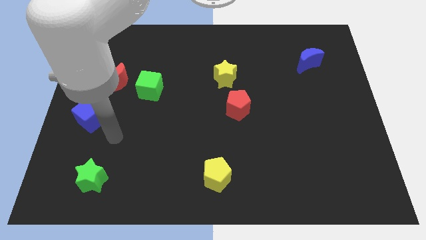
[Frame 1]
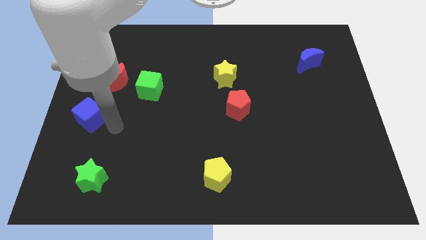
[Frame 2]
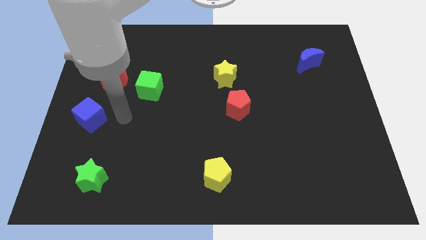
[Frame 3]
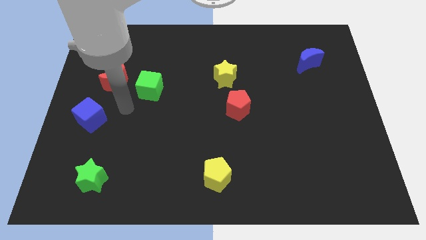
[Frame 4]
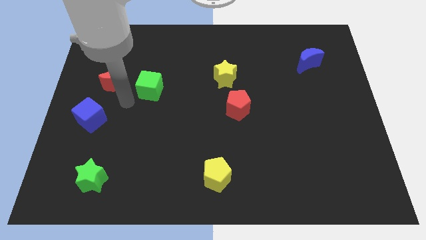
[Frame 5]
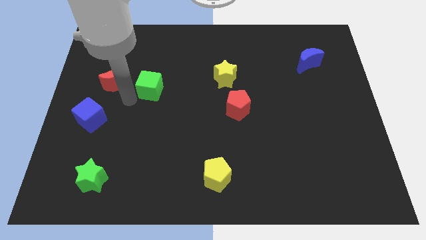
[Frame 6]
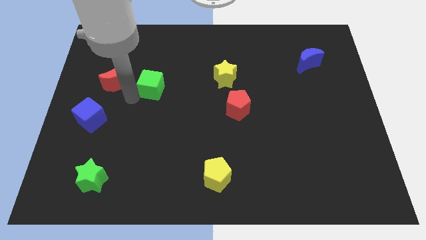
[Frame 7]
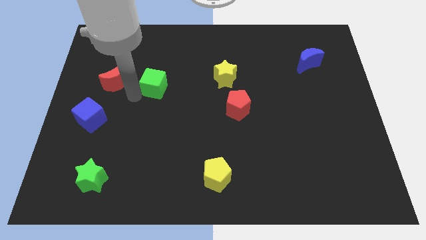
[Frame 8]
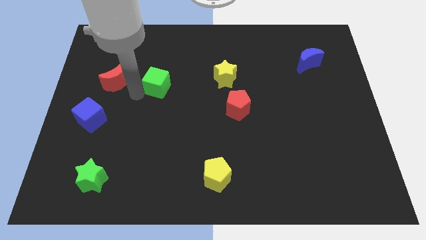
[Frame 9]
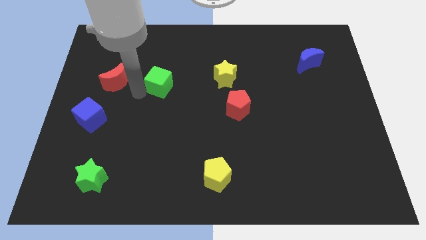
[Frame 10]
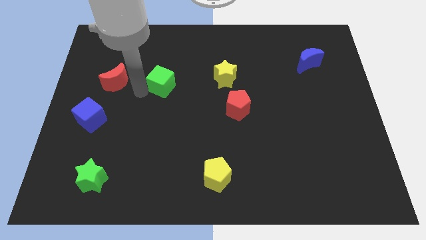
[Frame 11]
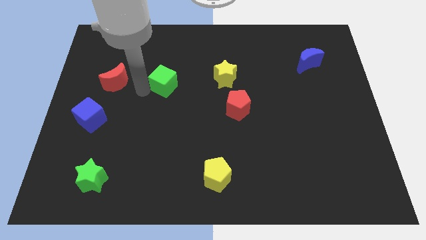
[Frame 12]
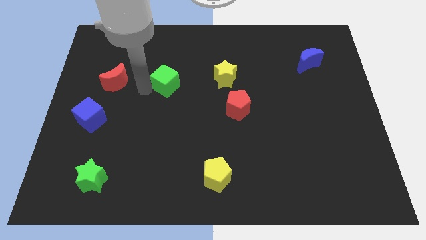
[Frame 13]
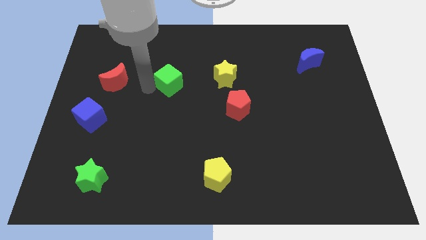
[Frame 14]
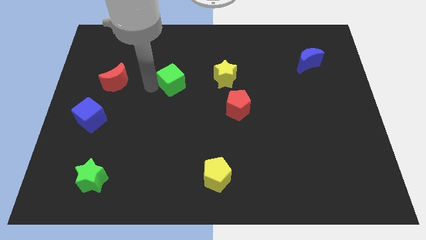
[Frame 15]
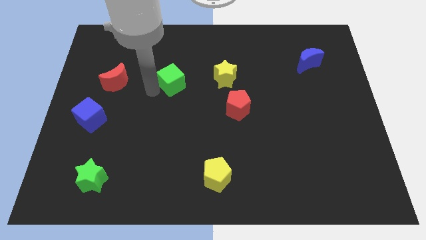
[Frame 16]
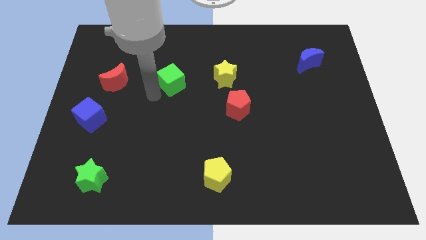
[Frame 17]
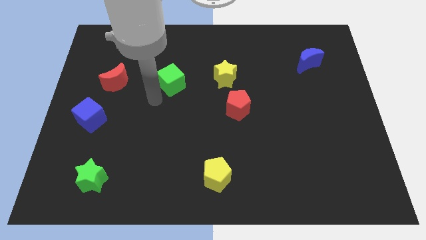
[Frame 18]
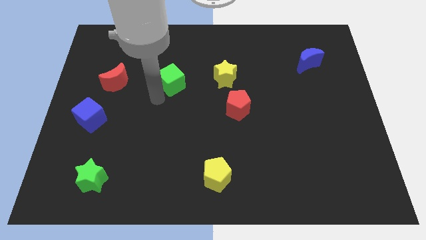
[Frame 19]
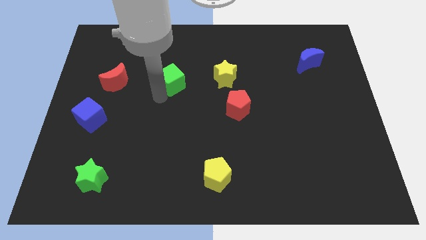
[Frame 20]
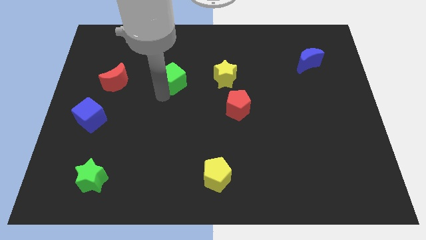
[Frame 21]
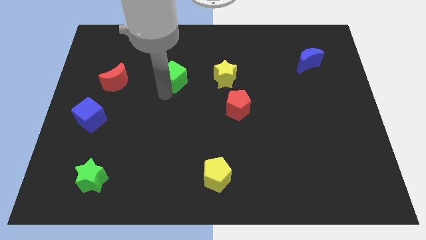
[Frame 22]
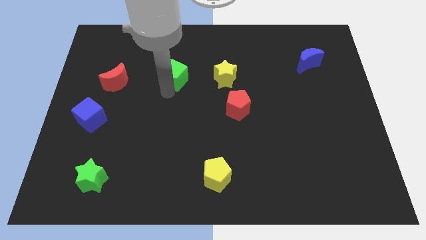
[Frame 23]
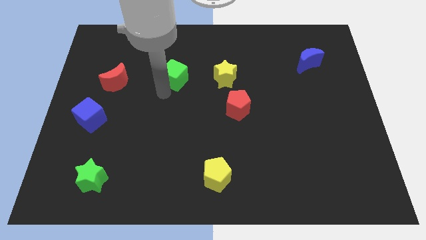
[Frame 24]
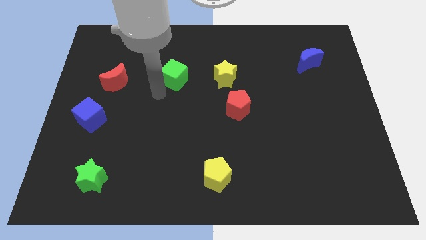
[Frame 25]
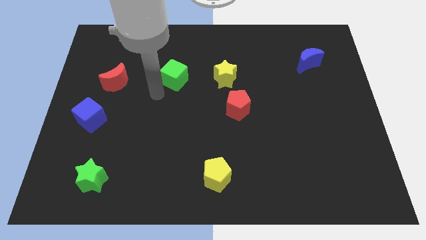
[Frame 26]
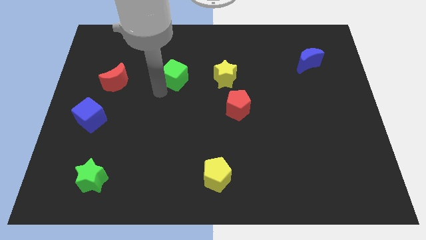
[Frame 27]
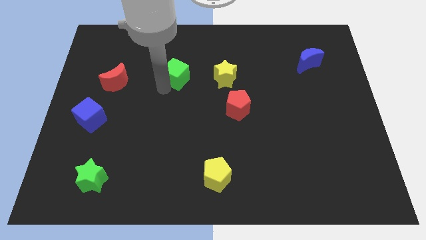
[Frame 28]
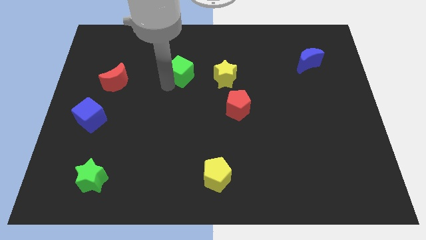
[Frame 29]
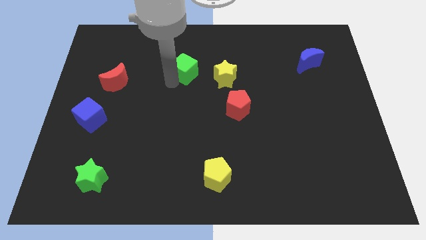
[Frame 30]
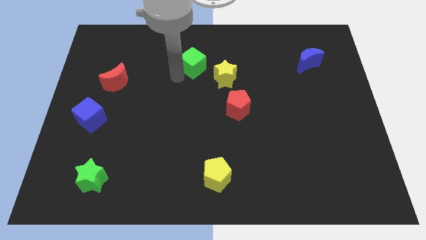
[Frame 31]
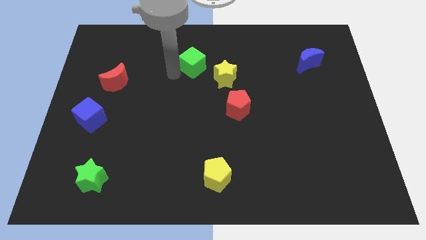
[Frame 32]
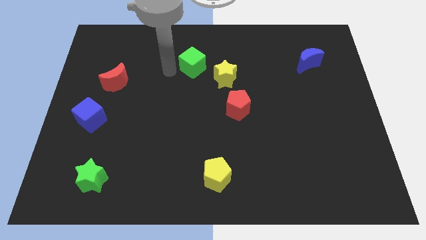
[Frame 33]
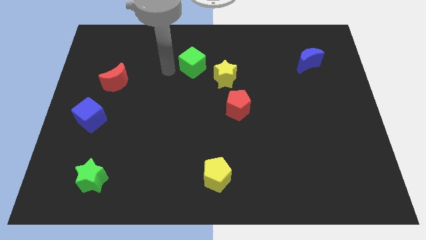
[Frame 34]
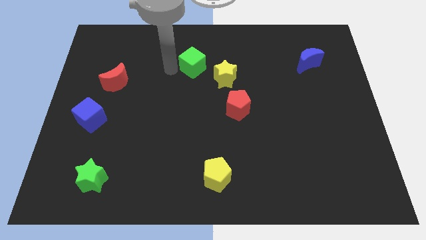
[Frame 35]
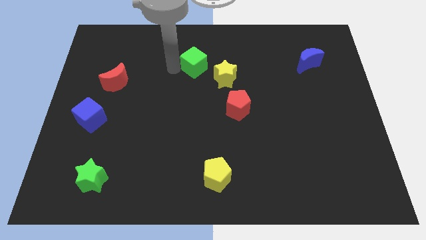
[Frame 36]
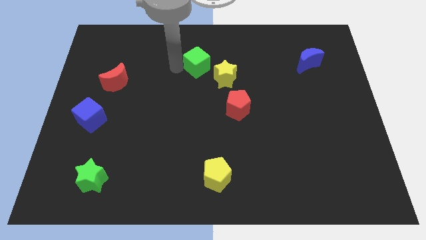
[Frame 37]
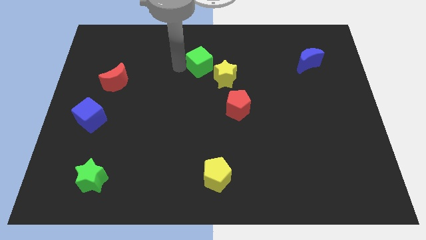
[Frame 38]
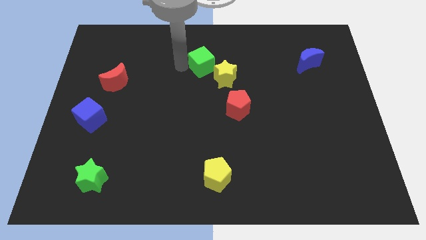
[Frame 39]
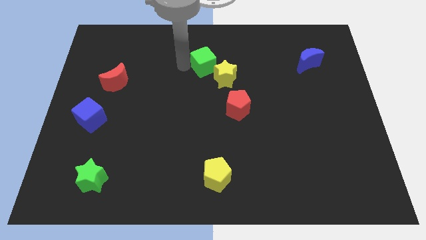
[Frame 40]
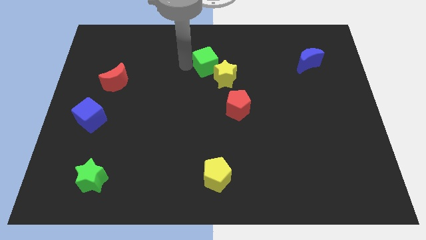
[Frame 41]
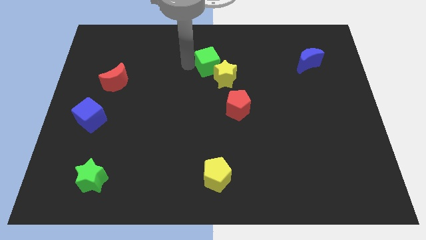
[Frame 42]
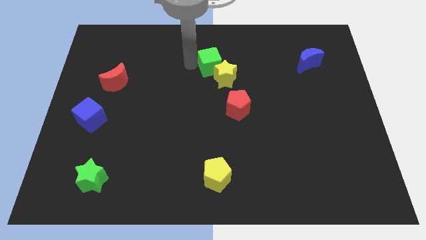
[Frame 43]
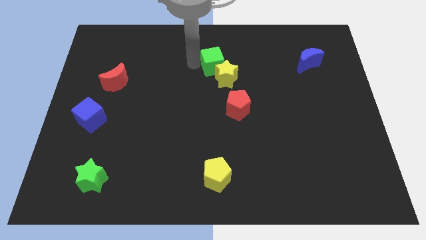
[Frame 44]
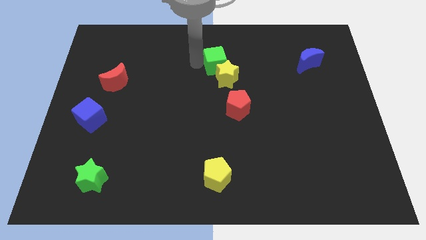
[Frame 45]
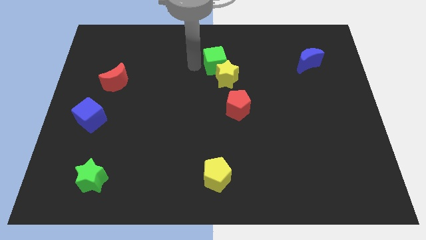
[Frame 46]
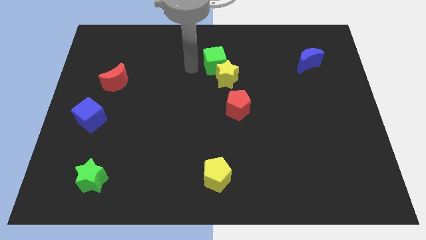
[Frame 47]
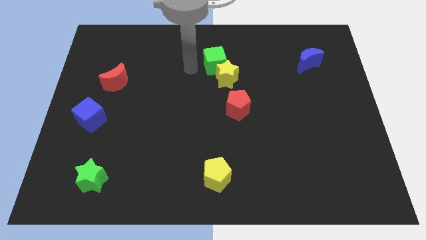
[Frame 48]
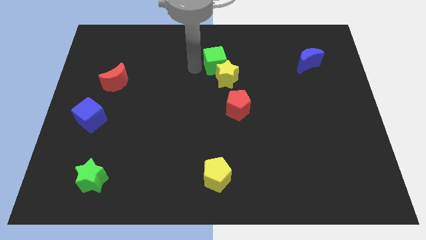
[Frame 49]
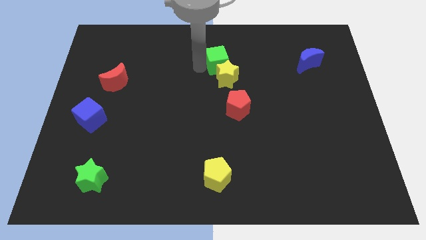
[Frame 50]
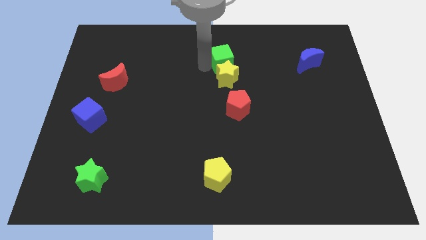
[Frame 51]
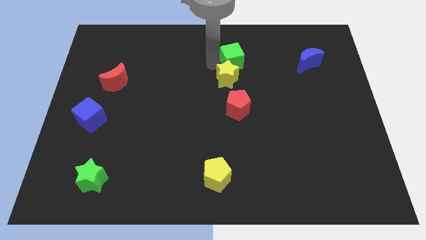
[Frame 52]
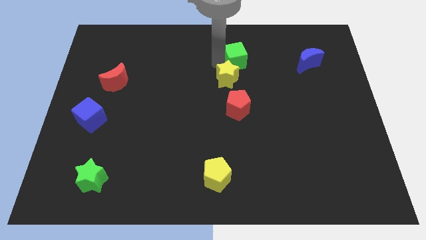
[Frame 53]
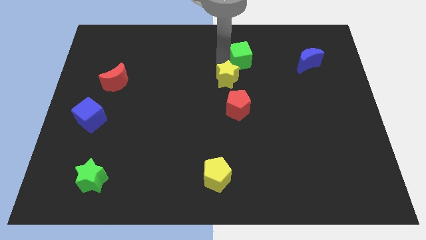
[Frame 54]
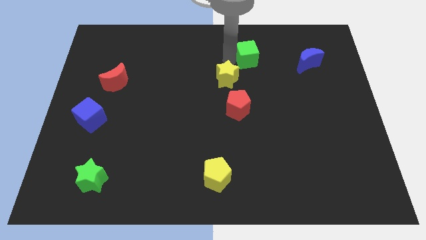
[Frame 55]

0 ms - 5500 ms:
slide the green cube to the left side of the blue moon

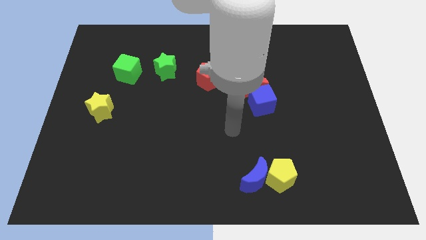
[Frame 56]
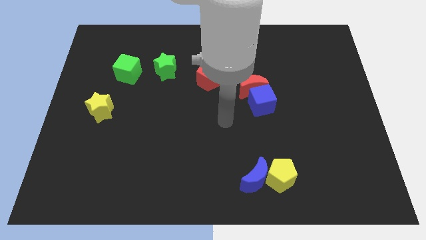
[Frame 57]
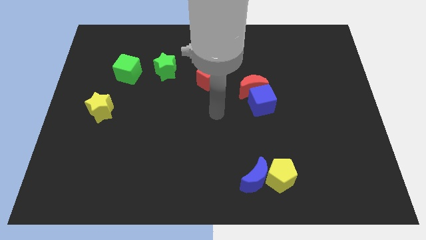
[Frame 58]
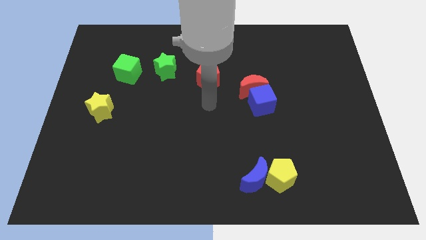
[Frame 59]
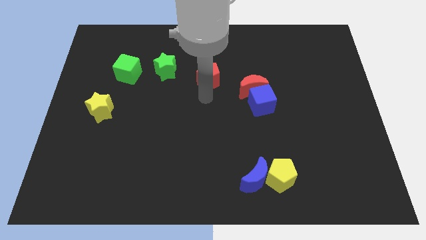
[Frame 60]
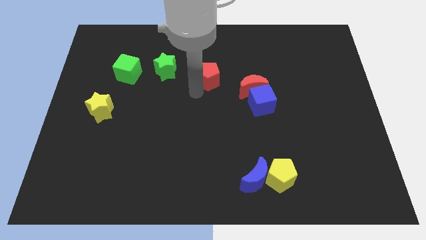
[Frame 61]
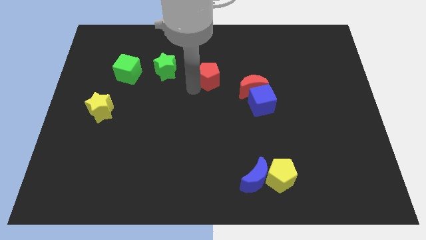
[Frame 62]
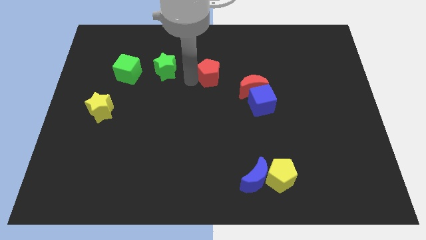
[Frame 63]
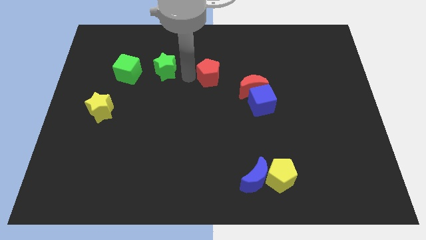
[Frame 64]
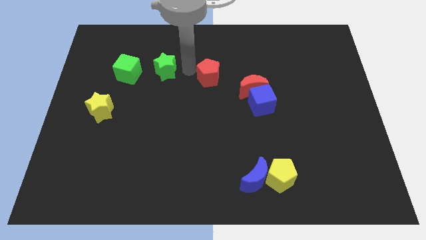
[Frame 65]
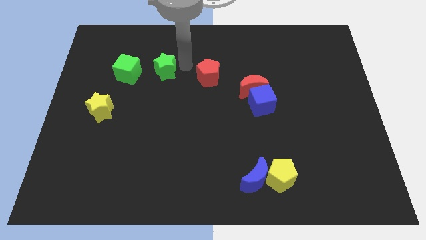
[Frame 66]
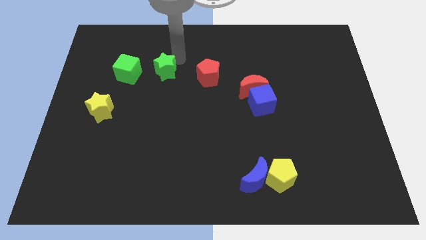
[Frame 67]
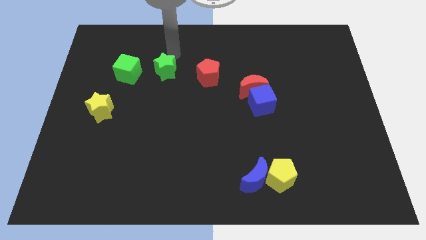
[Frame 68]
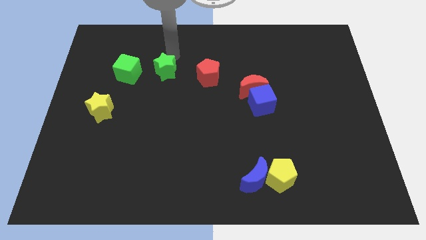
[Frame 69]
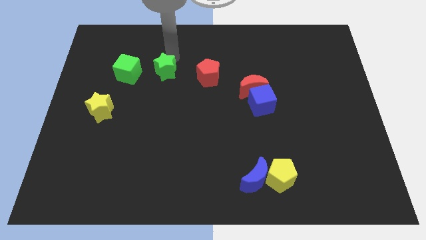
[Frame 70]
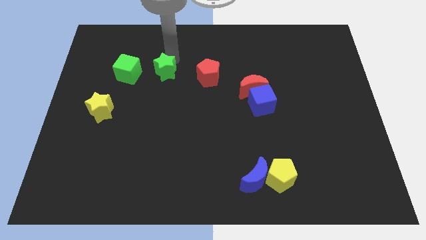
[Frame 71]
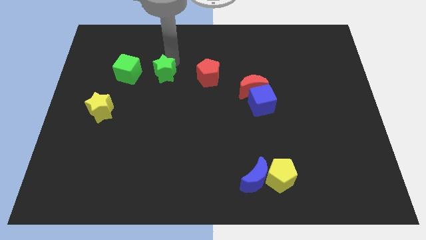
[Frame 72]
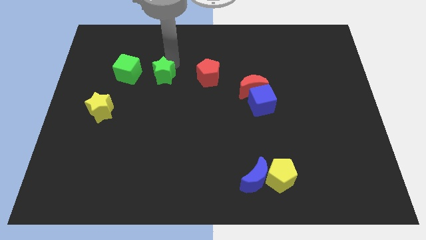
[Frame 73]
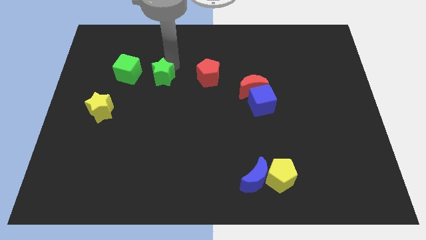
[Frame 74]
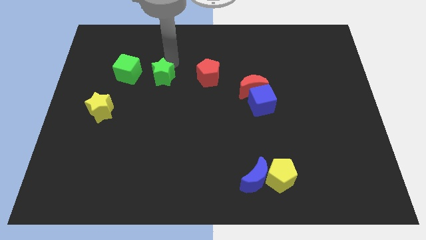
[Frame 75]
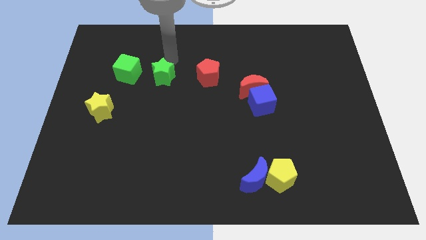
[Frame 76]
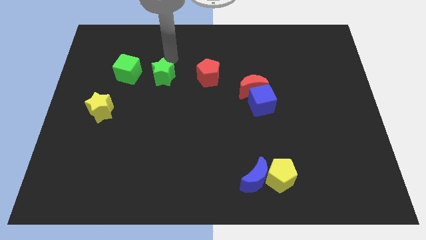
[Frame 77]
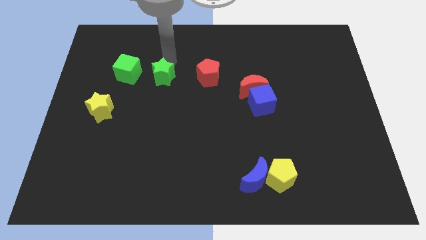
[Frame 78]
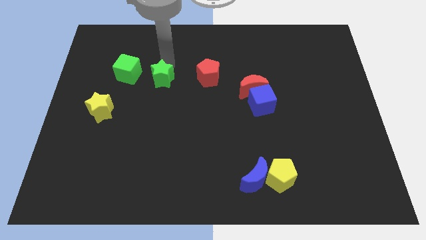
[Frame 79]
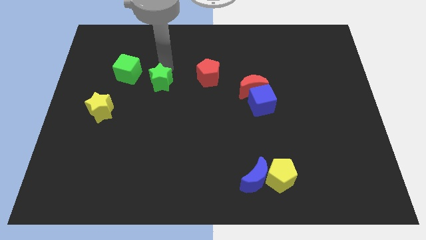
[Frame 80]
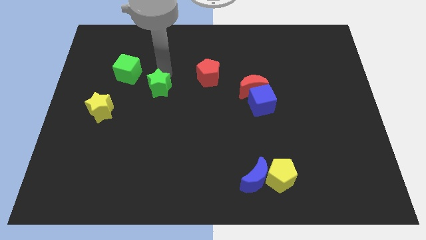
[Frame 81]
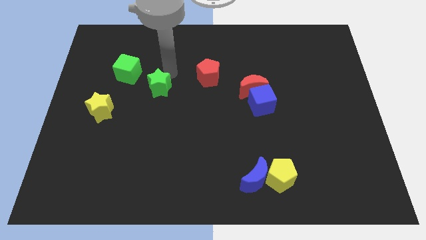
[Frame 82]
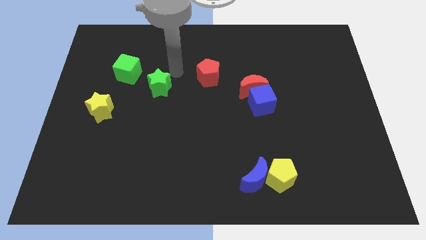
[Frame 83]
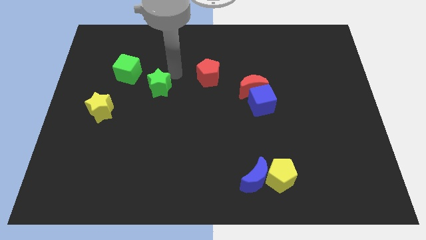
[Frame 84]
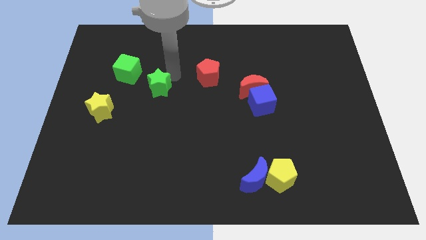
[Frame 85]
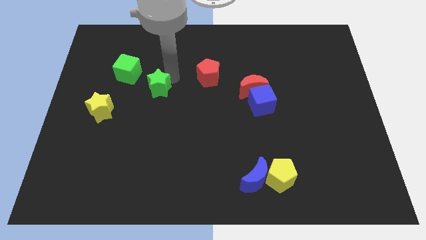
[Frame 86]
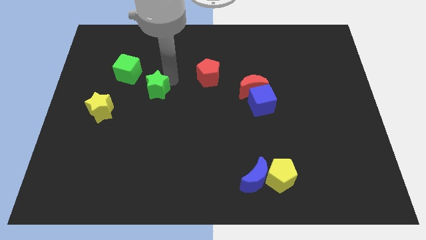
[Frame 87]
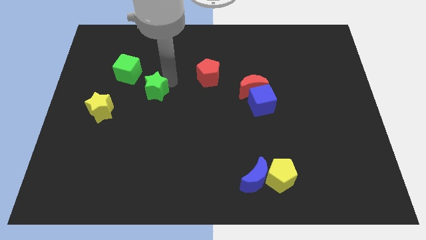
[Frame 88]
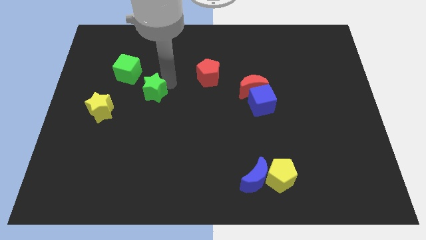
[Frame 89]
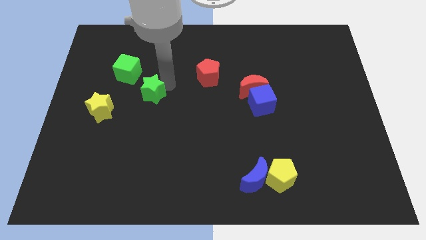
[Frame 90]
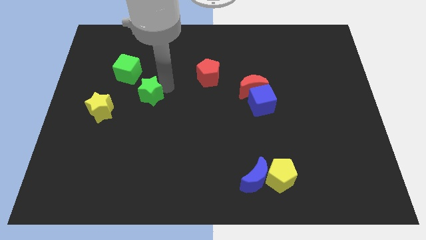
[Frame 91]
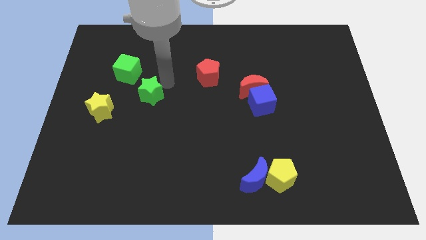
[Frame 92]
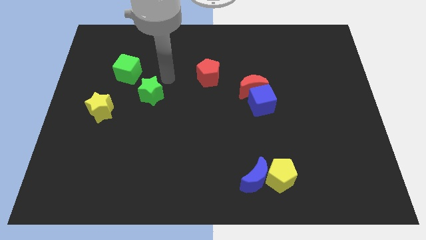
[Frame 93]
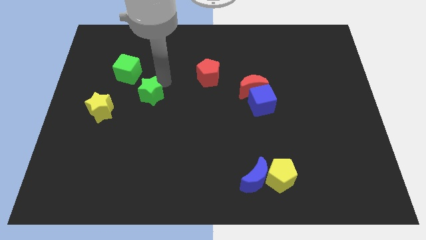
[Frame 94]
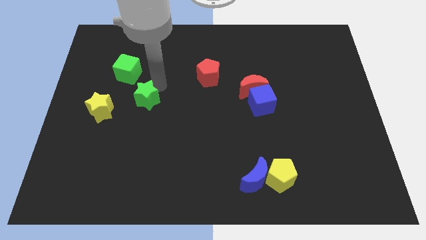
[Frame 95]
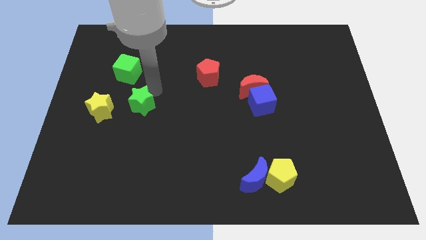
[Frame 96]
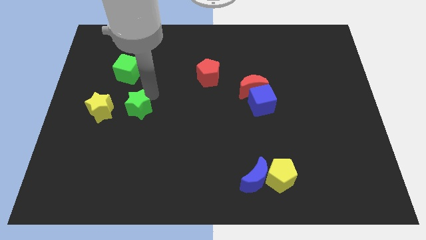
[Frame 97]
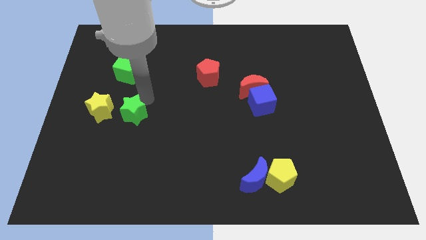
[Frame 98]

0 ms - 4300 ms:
slide the green star to the bottom right of the yellow star
